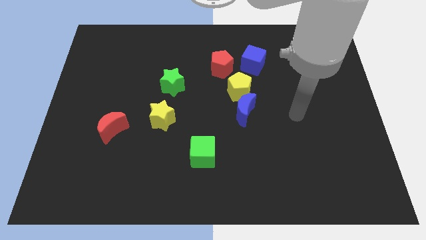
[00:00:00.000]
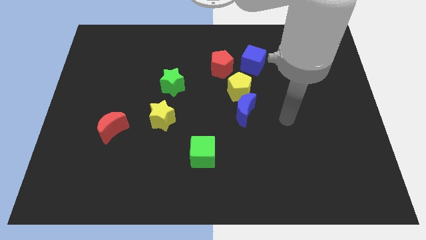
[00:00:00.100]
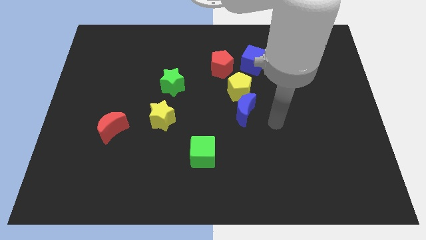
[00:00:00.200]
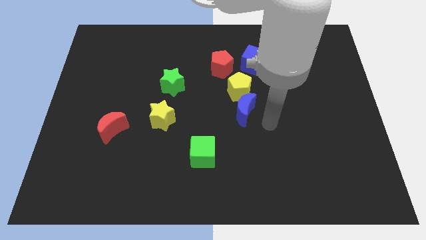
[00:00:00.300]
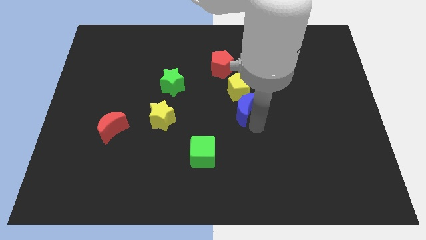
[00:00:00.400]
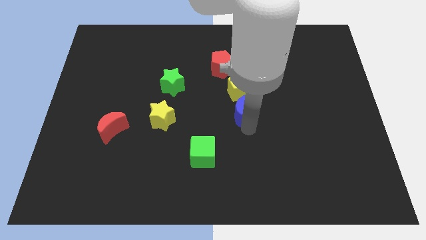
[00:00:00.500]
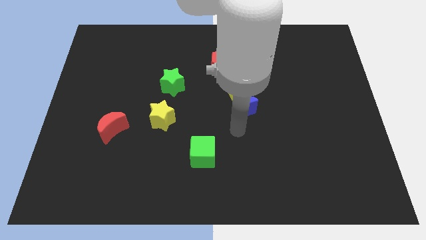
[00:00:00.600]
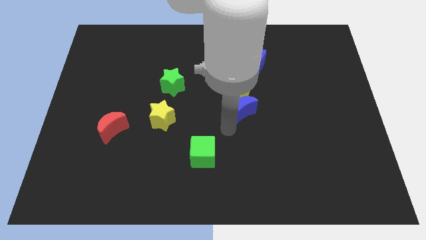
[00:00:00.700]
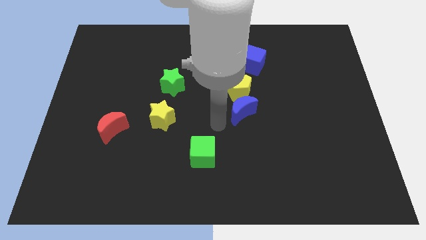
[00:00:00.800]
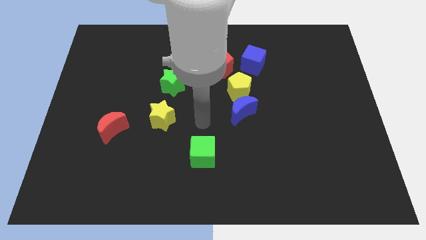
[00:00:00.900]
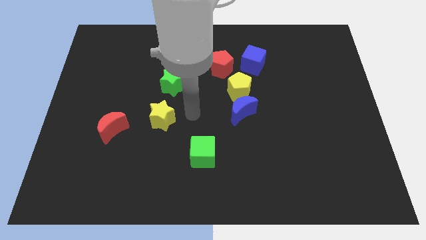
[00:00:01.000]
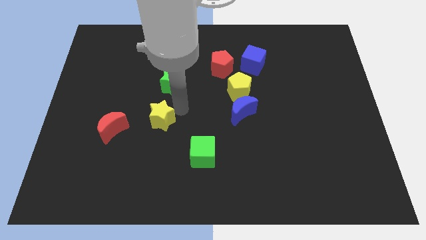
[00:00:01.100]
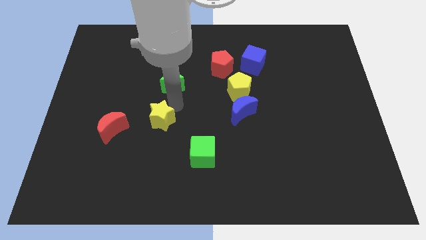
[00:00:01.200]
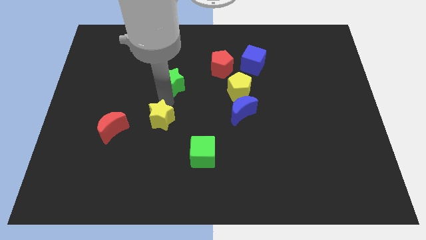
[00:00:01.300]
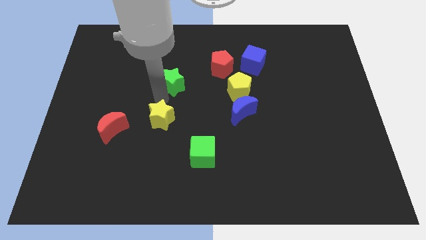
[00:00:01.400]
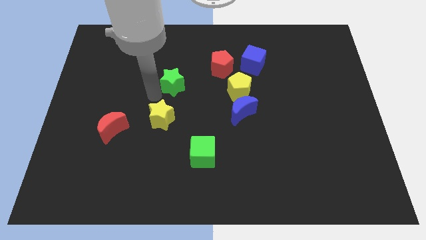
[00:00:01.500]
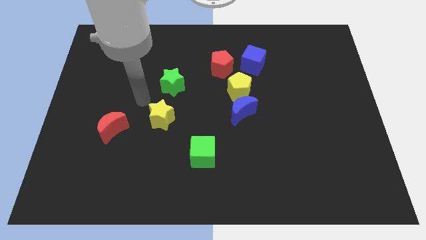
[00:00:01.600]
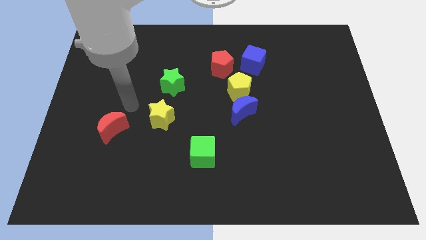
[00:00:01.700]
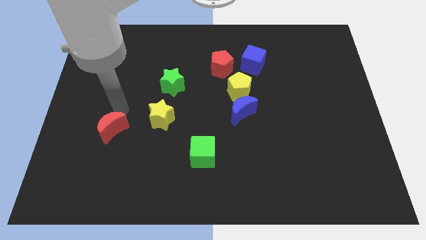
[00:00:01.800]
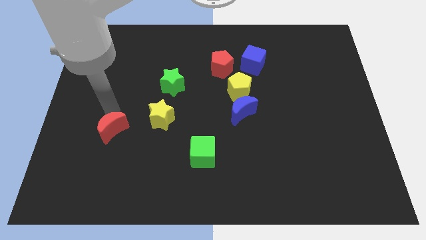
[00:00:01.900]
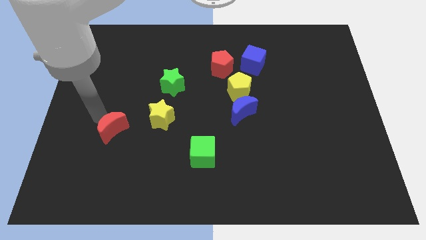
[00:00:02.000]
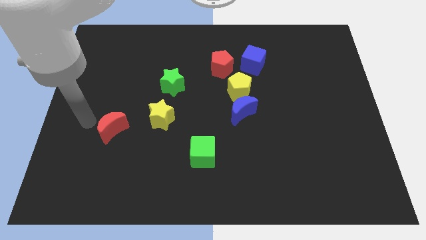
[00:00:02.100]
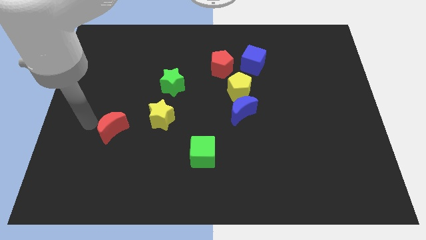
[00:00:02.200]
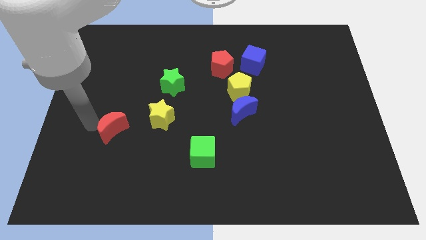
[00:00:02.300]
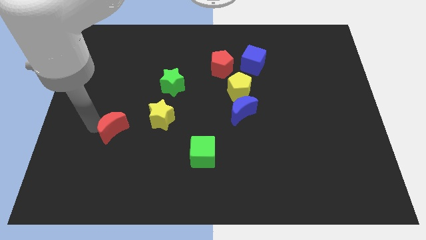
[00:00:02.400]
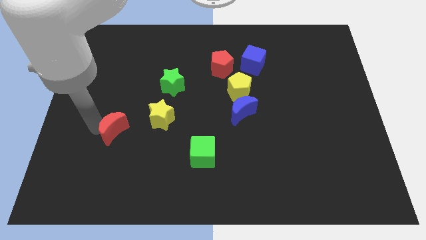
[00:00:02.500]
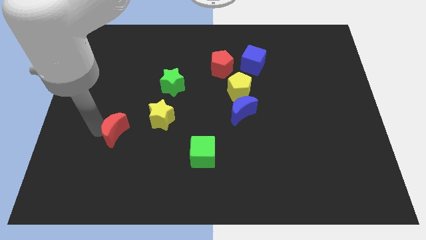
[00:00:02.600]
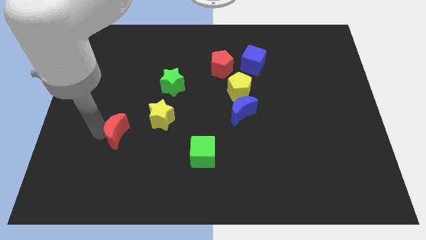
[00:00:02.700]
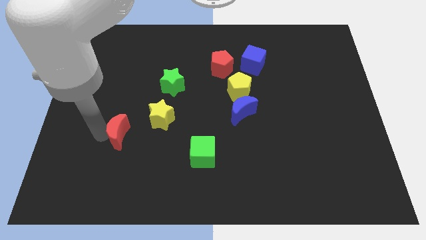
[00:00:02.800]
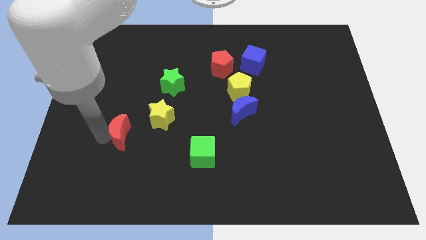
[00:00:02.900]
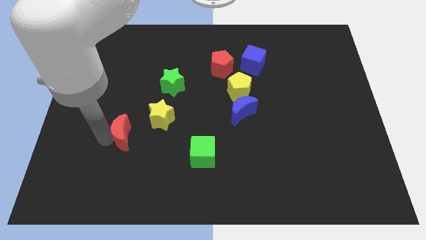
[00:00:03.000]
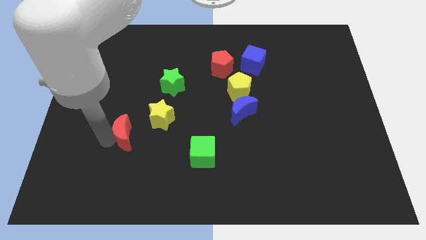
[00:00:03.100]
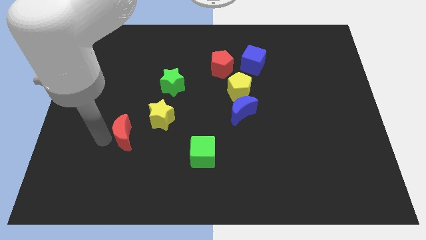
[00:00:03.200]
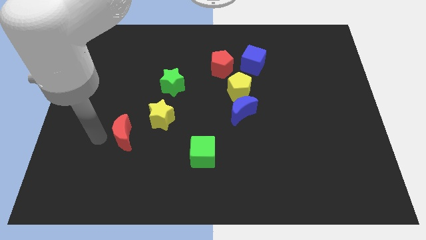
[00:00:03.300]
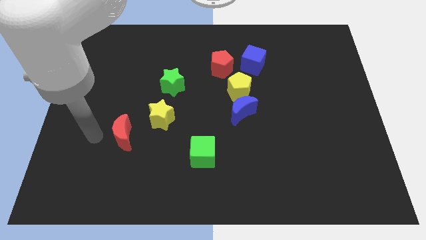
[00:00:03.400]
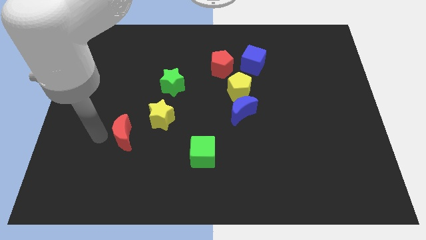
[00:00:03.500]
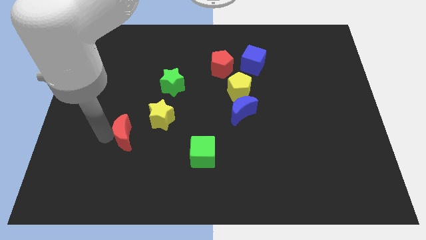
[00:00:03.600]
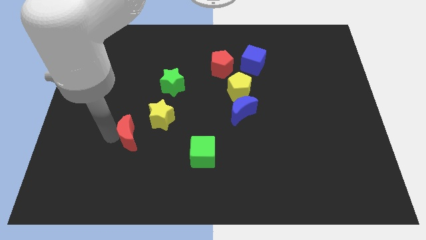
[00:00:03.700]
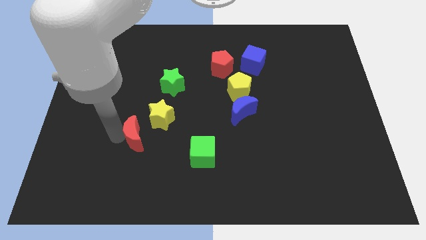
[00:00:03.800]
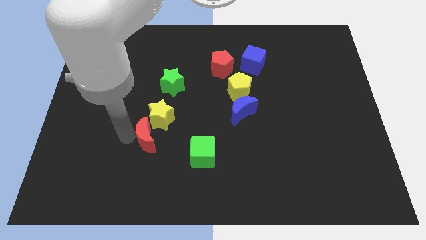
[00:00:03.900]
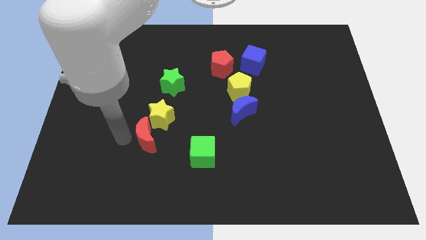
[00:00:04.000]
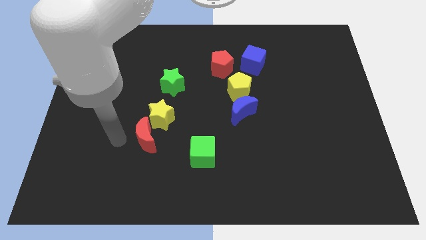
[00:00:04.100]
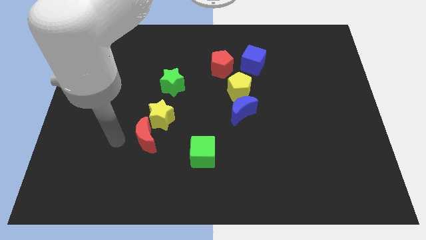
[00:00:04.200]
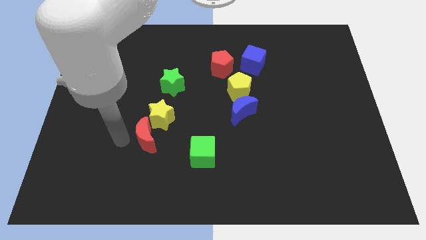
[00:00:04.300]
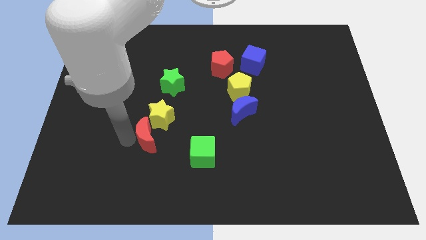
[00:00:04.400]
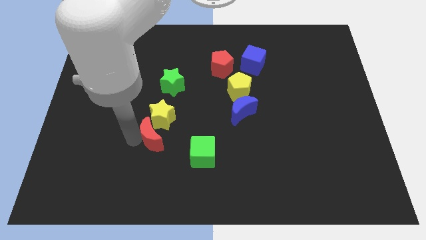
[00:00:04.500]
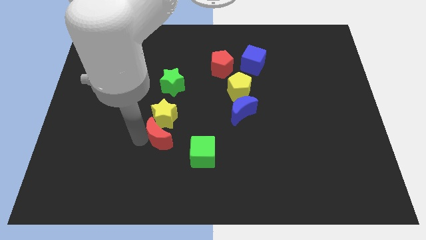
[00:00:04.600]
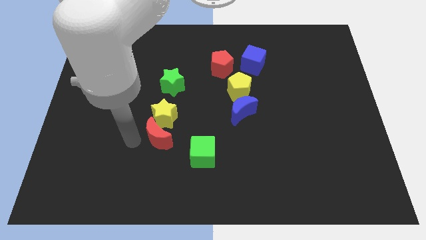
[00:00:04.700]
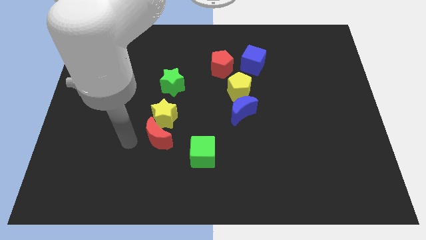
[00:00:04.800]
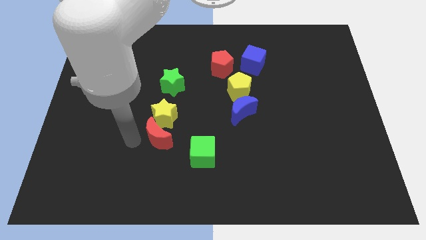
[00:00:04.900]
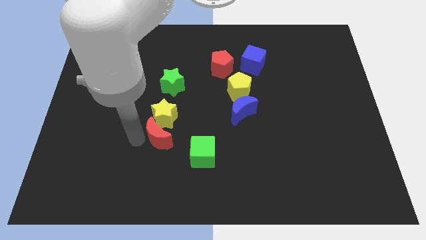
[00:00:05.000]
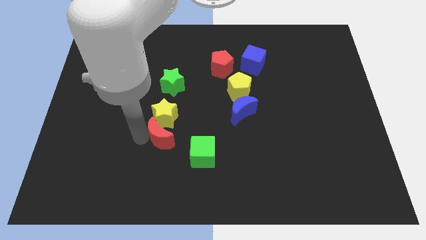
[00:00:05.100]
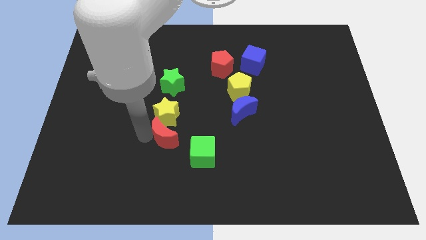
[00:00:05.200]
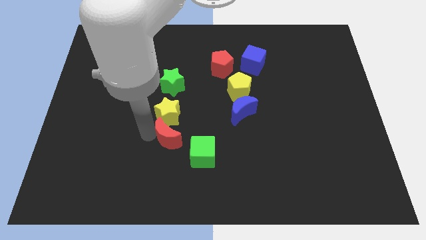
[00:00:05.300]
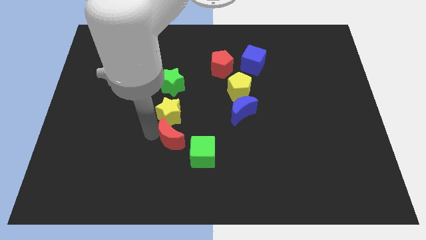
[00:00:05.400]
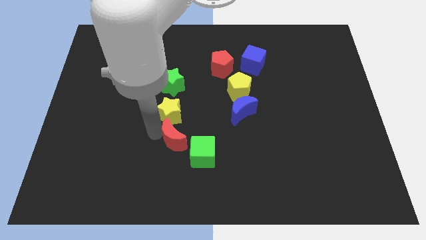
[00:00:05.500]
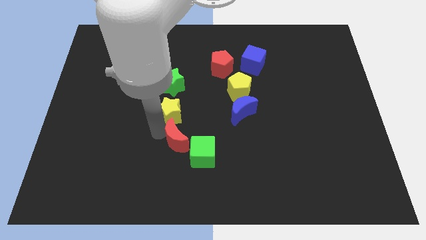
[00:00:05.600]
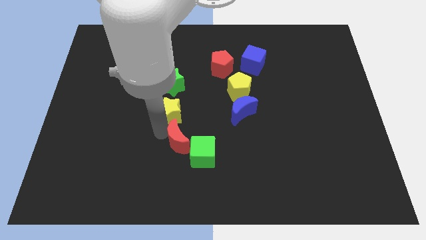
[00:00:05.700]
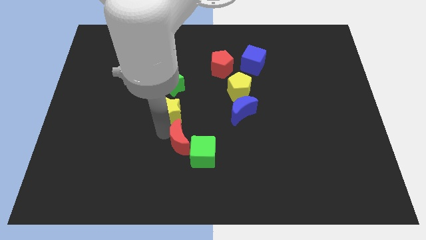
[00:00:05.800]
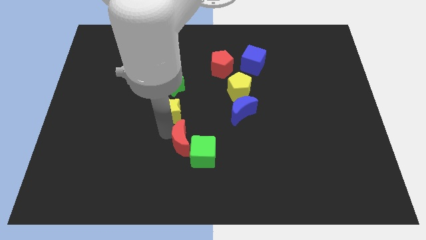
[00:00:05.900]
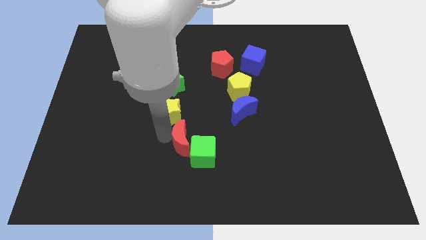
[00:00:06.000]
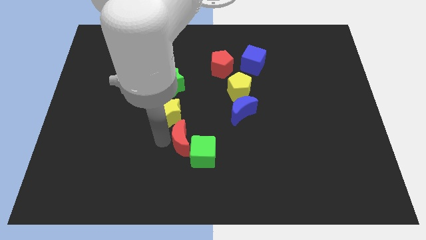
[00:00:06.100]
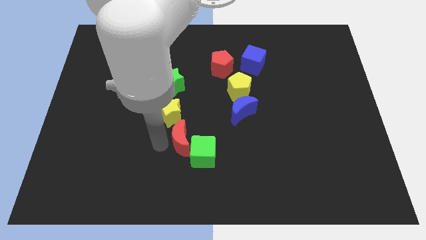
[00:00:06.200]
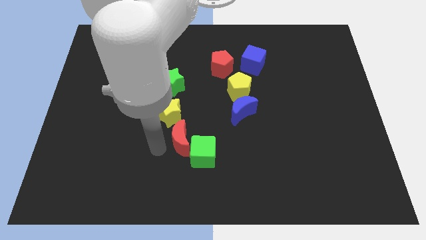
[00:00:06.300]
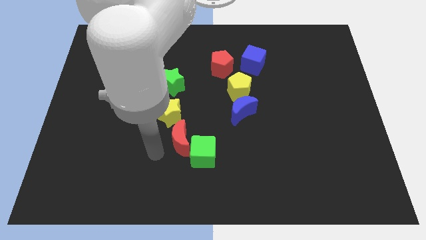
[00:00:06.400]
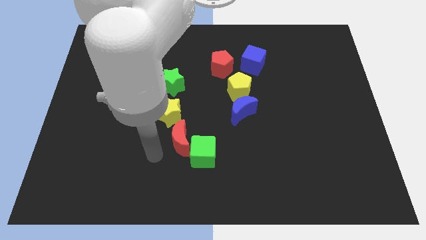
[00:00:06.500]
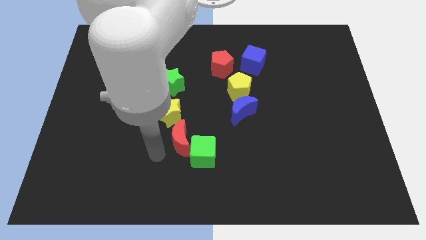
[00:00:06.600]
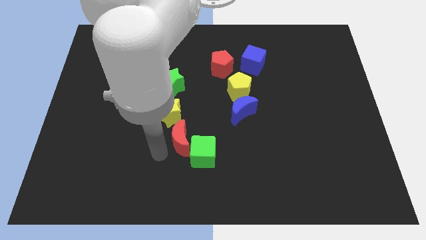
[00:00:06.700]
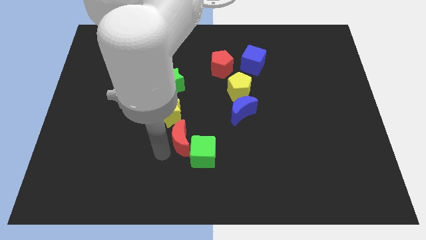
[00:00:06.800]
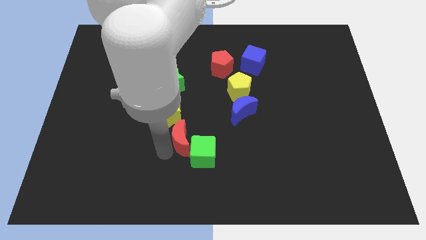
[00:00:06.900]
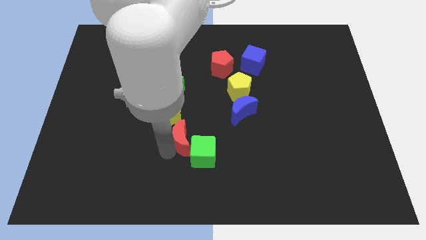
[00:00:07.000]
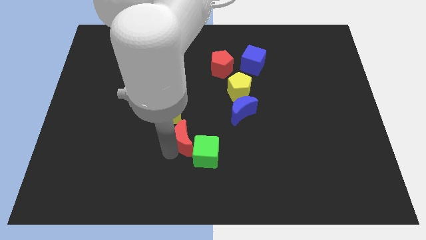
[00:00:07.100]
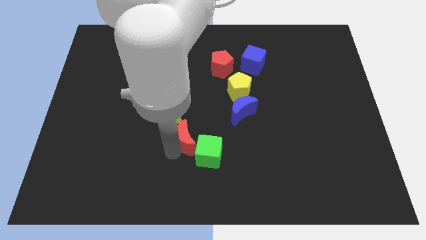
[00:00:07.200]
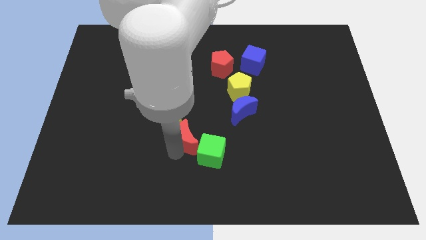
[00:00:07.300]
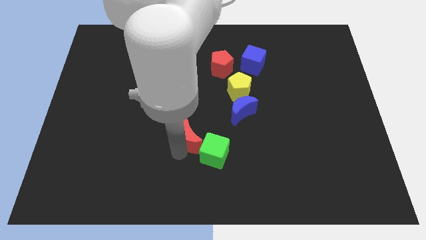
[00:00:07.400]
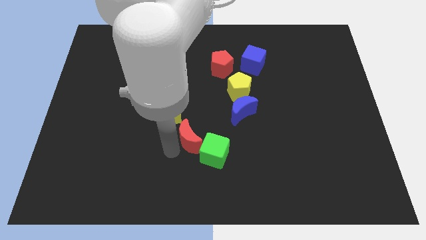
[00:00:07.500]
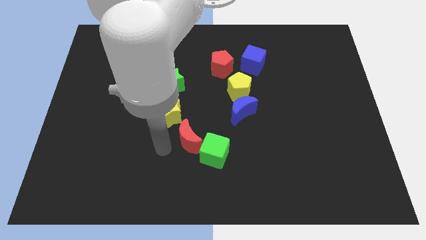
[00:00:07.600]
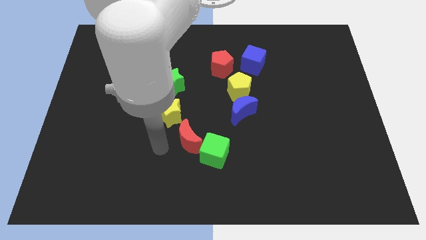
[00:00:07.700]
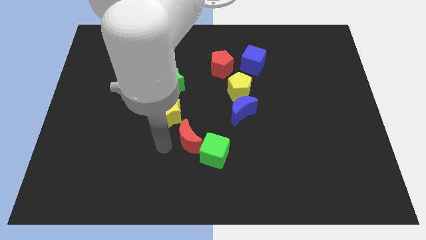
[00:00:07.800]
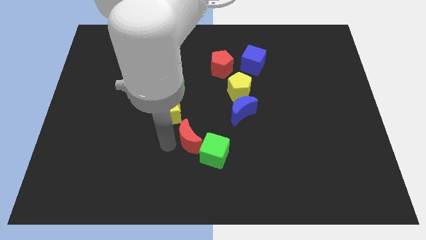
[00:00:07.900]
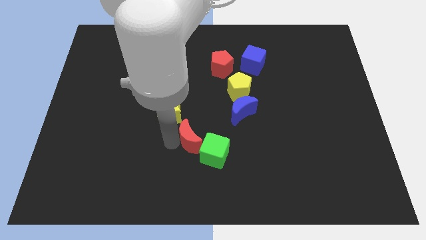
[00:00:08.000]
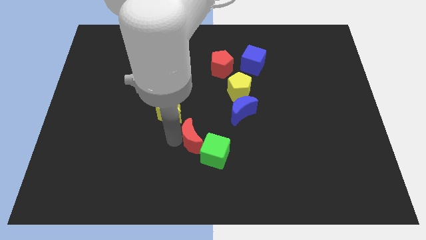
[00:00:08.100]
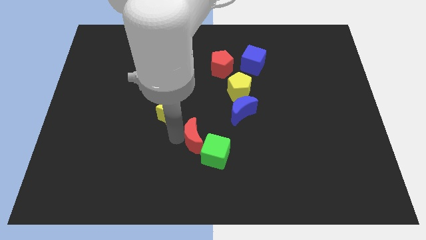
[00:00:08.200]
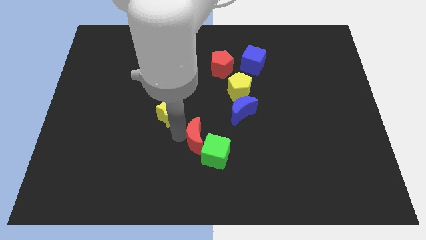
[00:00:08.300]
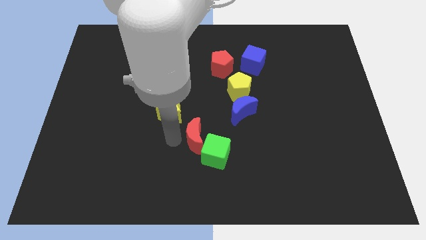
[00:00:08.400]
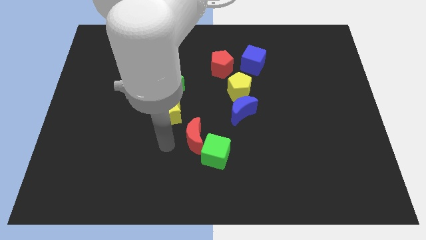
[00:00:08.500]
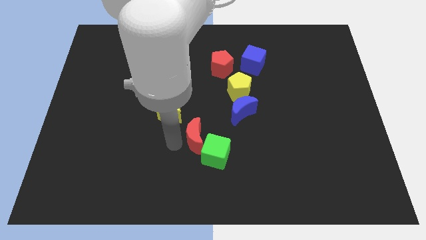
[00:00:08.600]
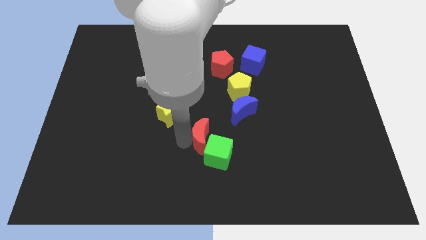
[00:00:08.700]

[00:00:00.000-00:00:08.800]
slide the red moon to the right
